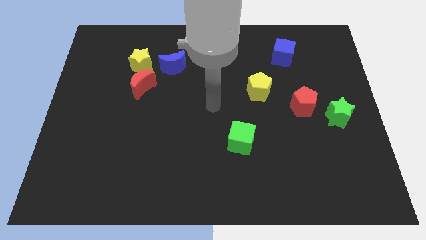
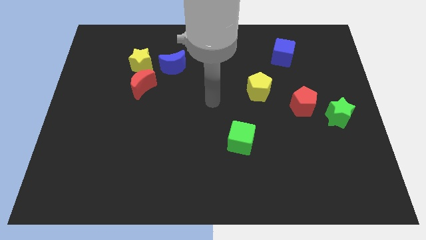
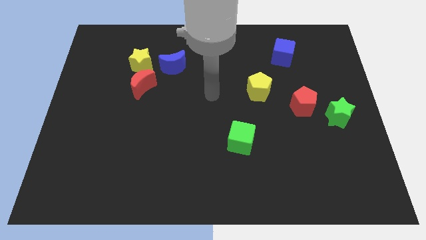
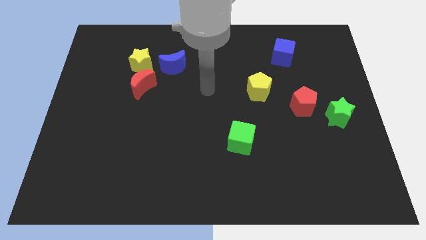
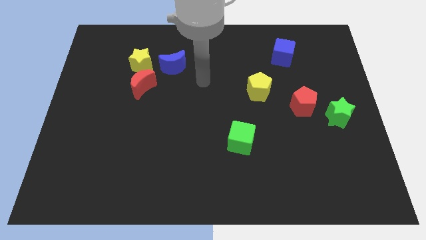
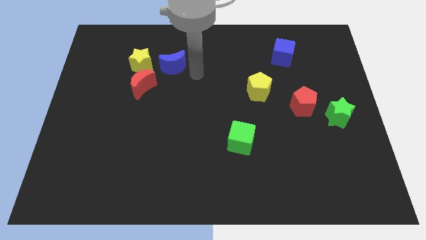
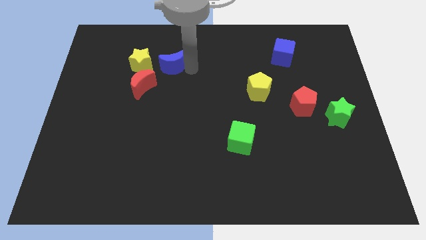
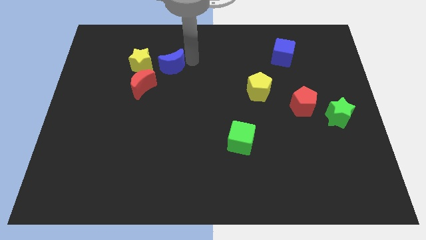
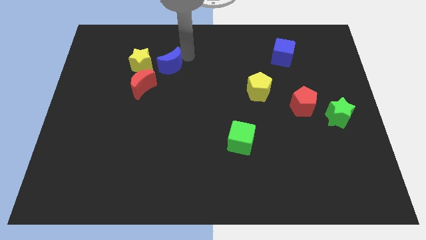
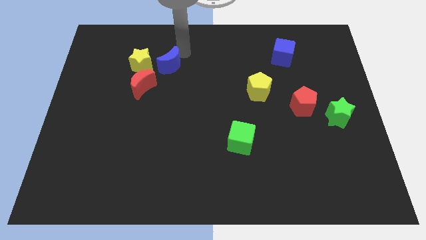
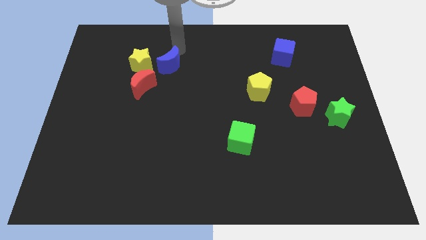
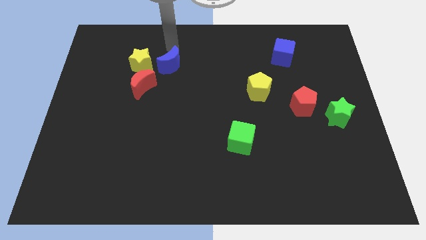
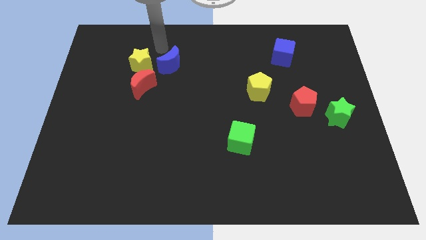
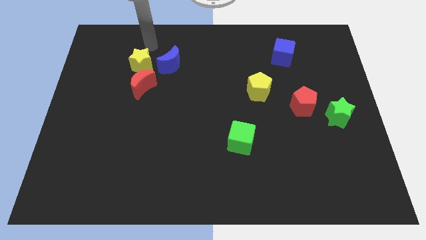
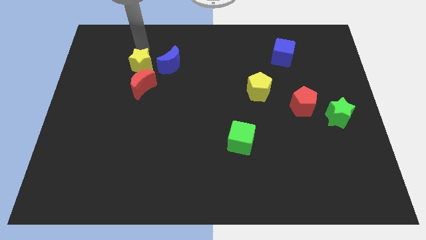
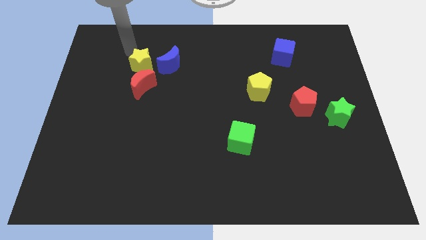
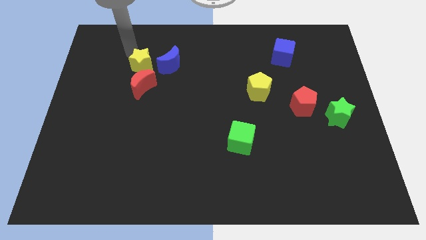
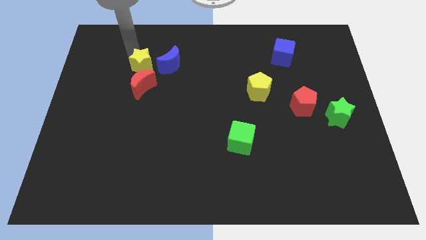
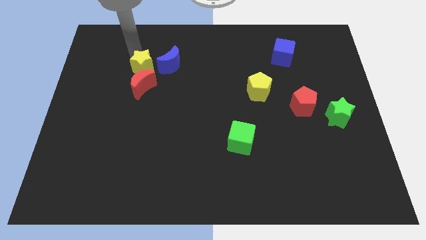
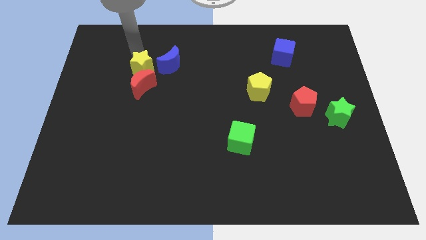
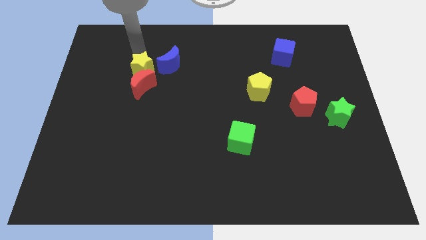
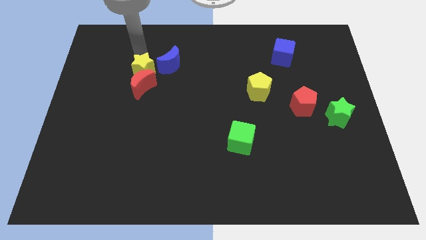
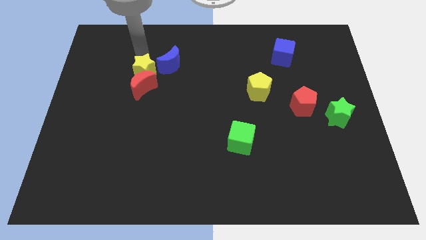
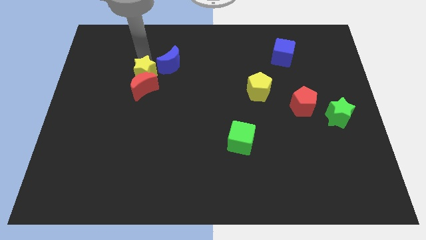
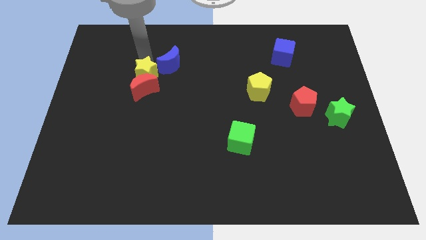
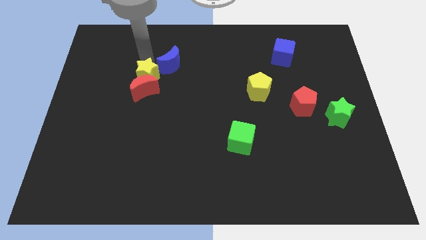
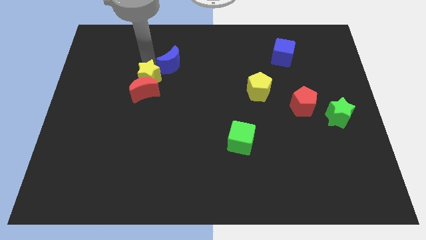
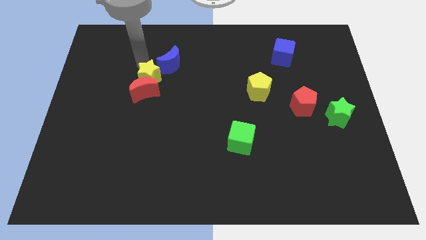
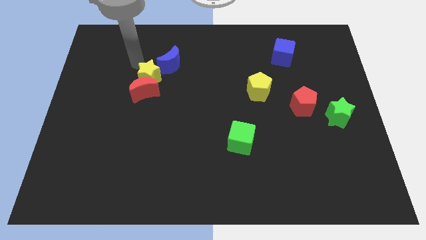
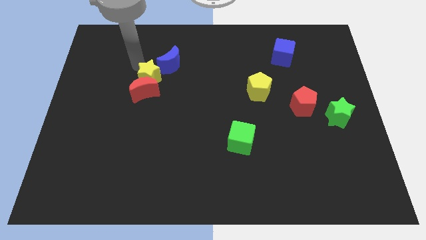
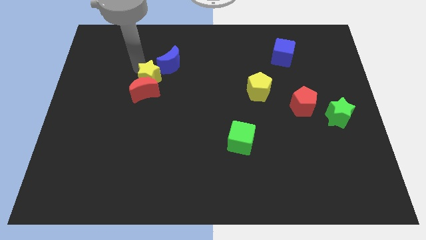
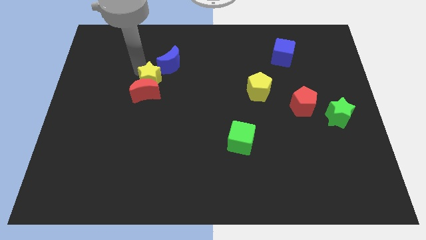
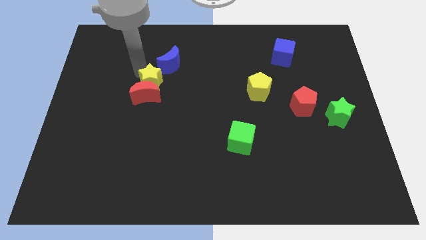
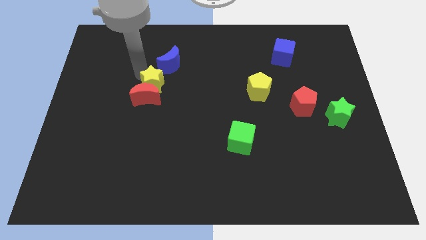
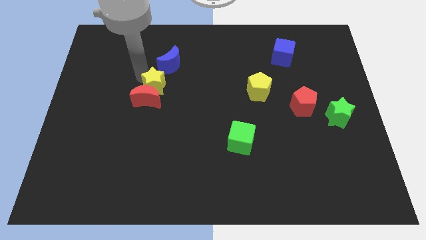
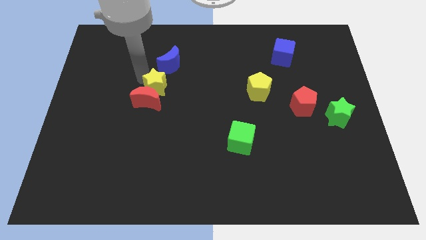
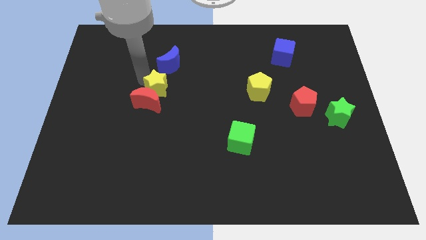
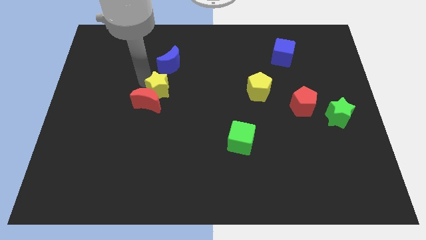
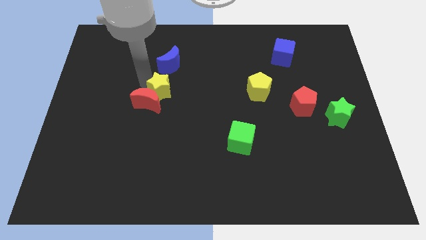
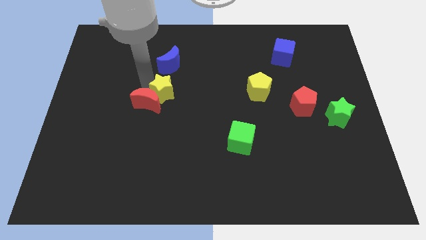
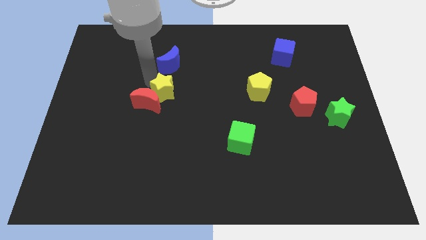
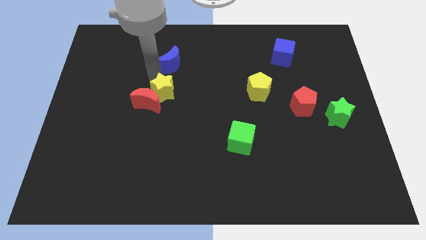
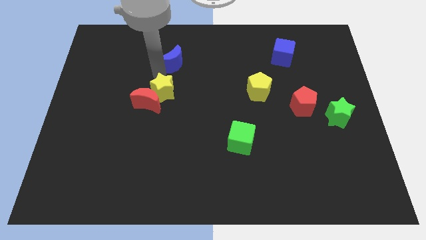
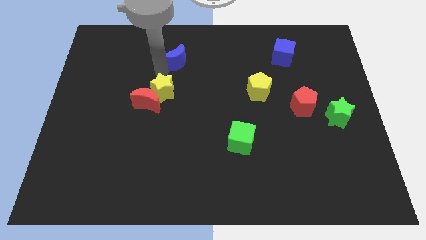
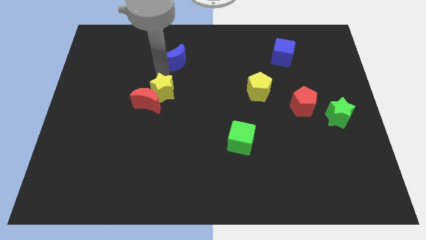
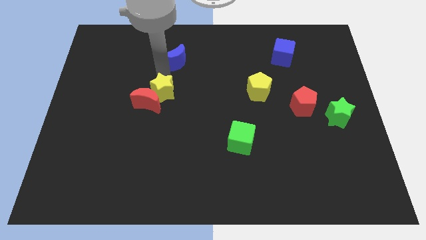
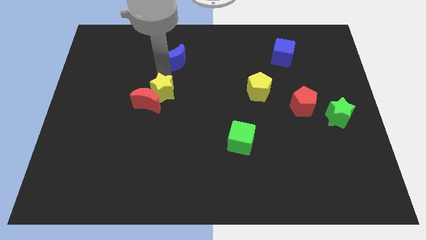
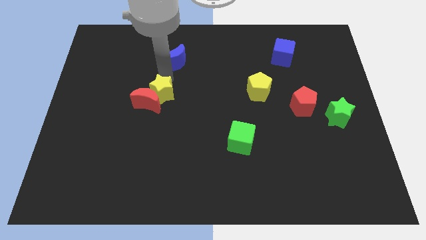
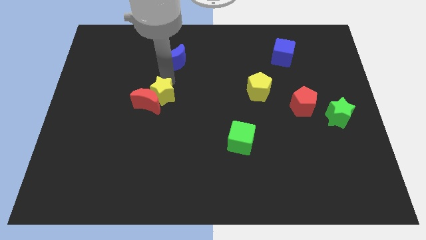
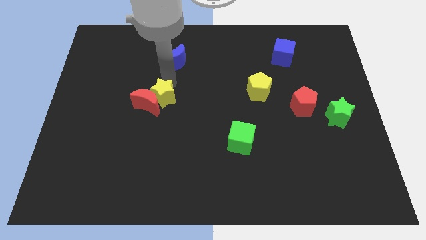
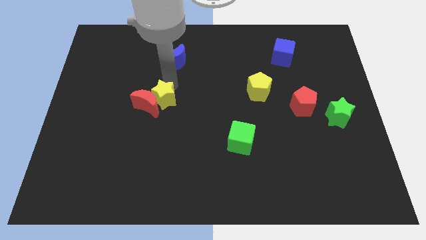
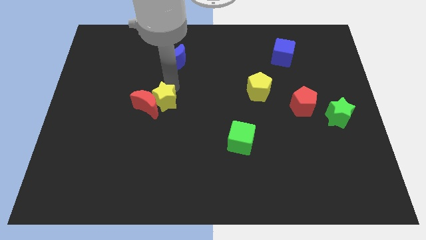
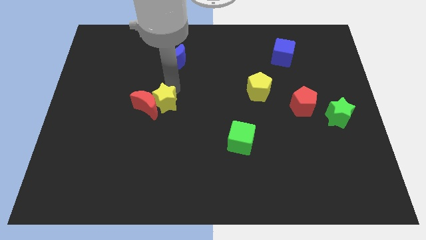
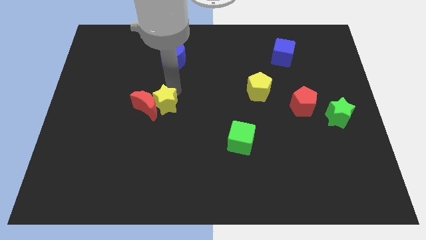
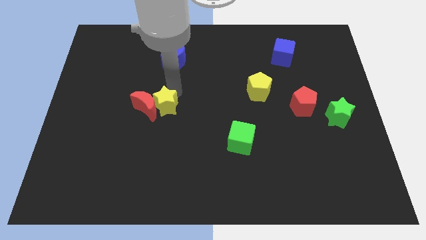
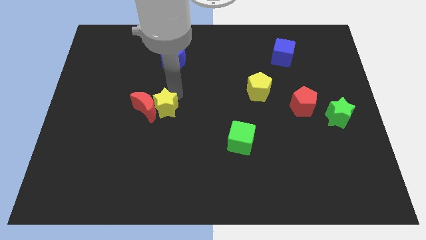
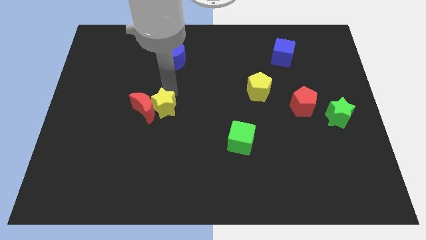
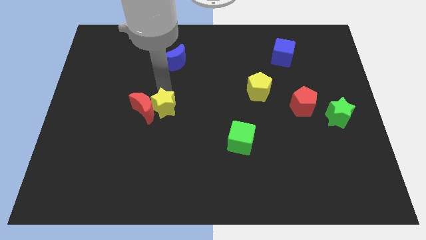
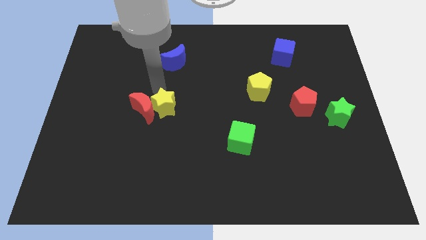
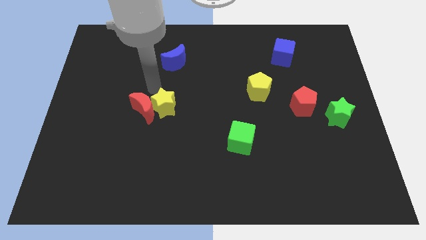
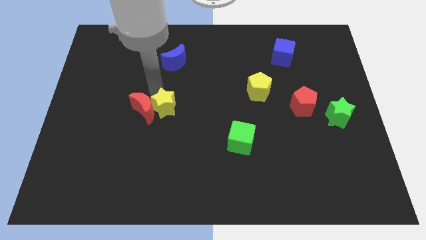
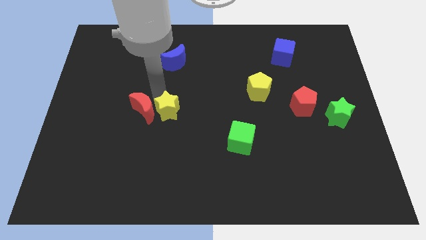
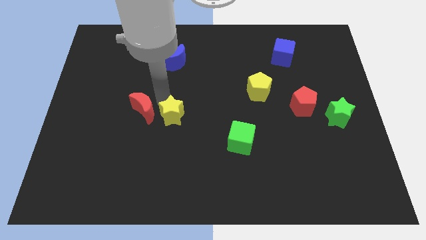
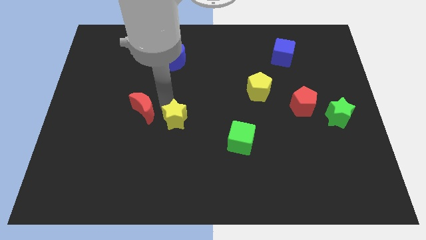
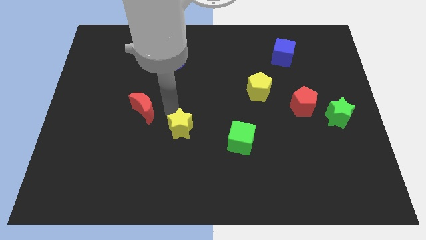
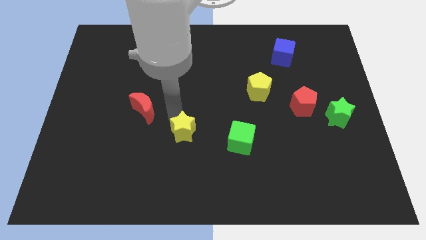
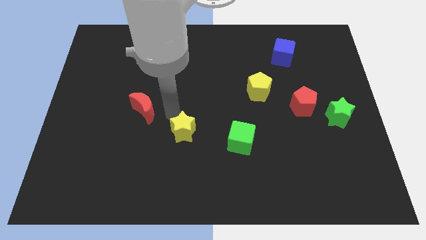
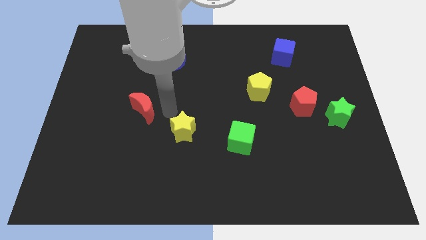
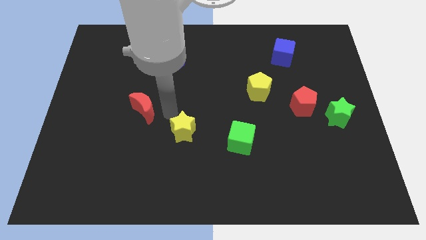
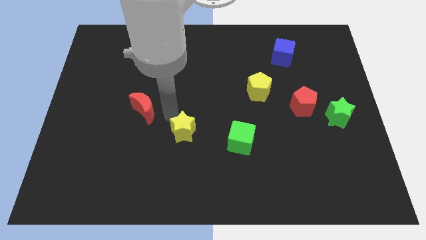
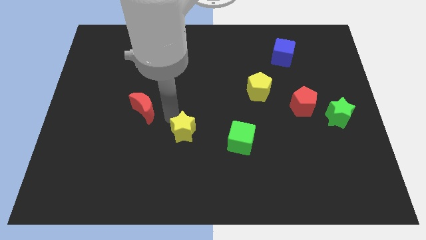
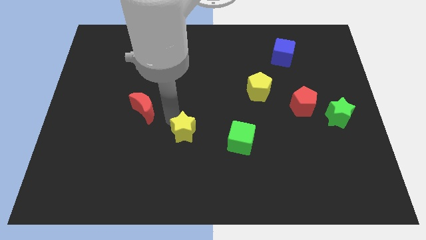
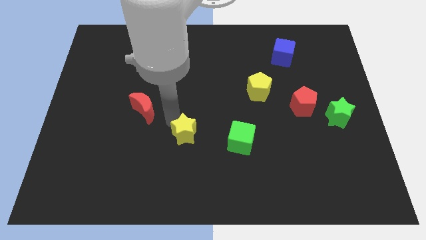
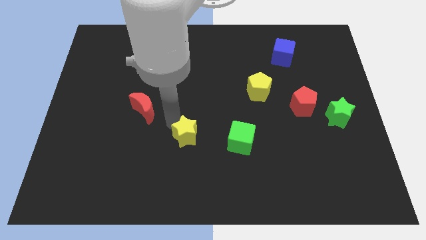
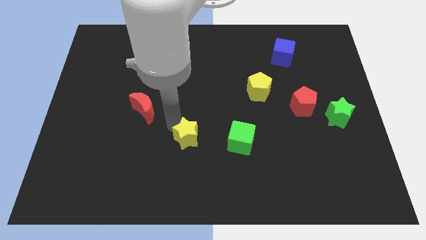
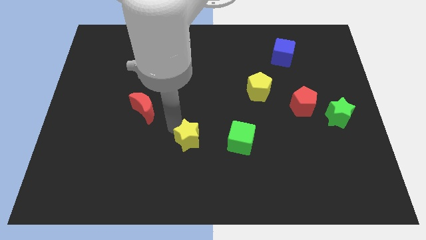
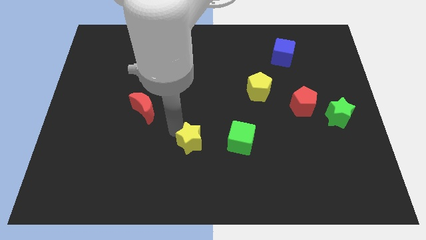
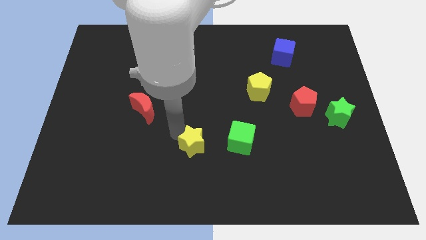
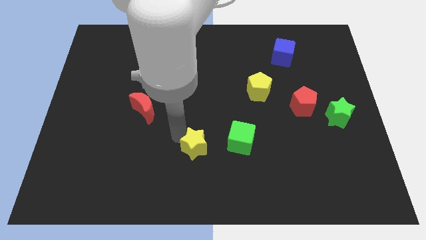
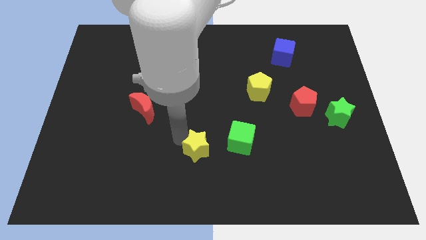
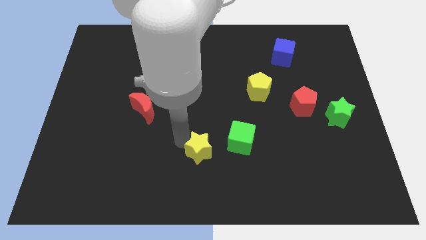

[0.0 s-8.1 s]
push the yellow star to the bottom left side of the green cube
